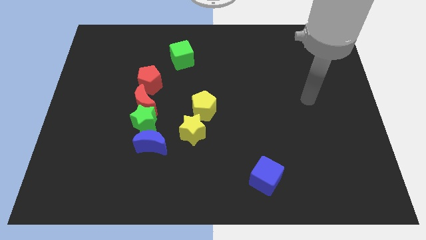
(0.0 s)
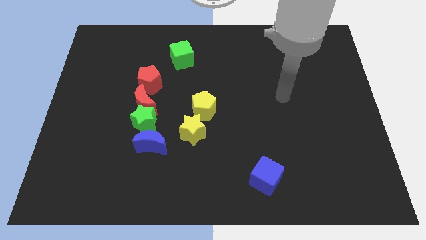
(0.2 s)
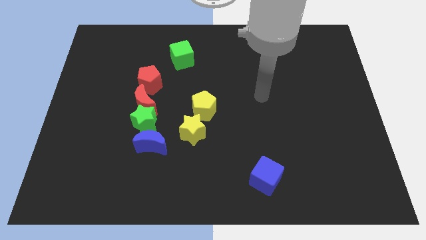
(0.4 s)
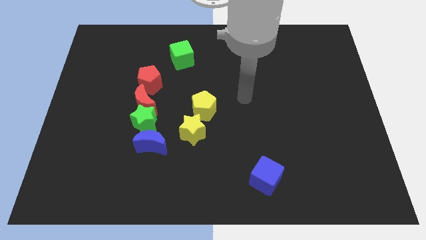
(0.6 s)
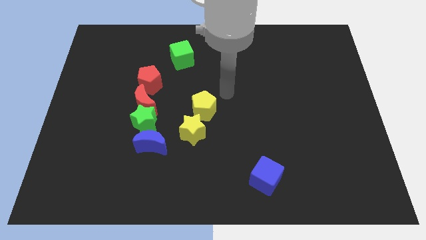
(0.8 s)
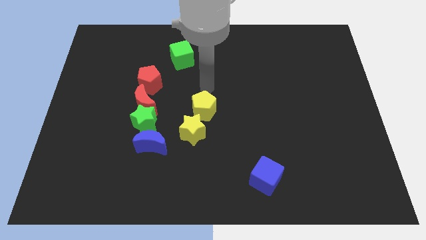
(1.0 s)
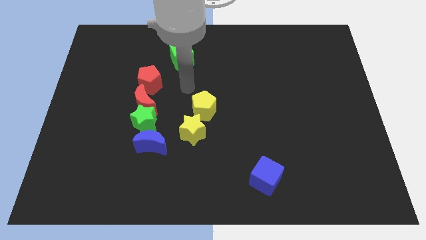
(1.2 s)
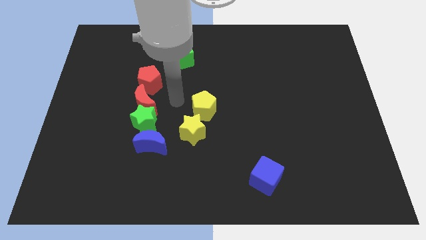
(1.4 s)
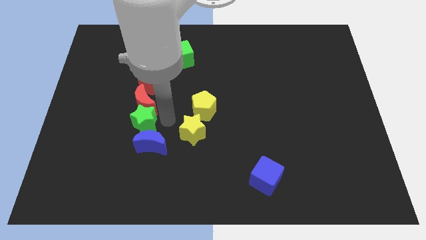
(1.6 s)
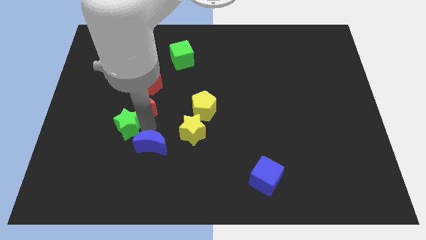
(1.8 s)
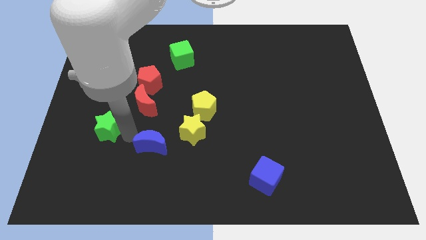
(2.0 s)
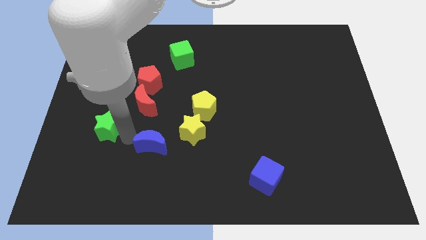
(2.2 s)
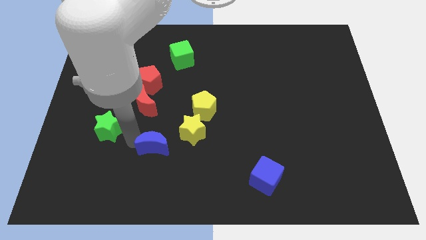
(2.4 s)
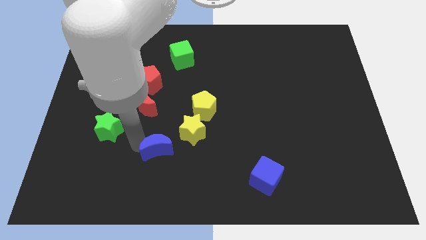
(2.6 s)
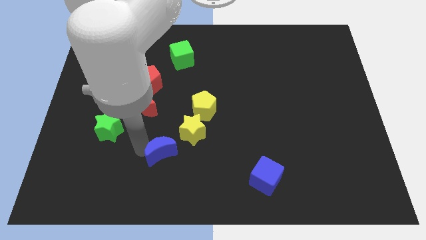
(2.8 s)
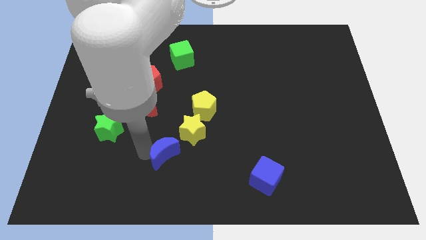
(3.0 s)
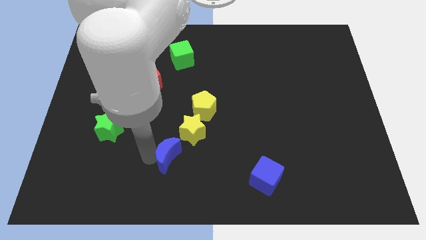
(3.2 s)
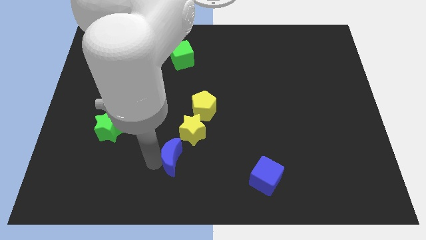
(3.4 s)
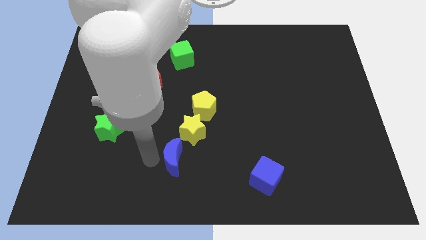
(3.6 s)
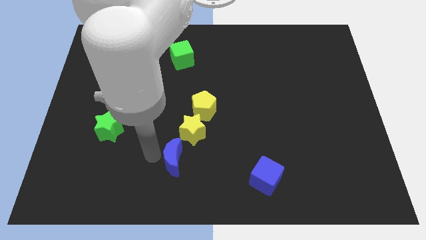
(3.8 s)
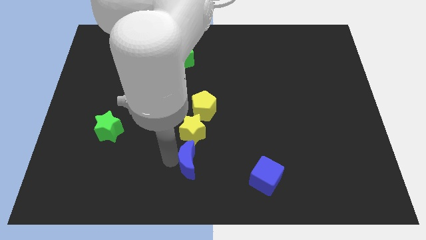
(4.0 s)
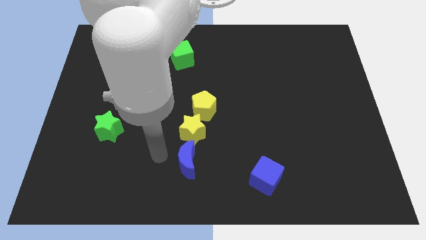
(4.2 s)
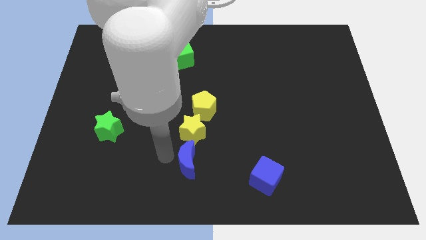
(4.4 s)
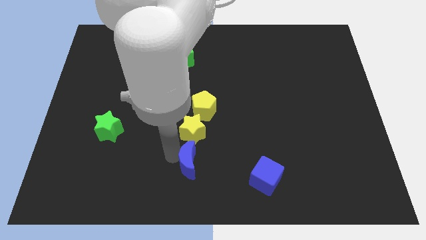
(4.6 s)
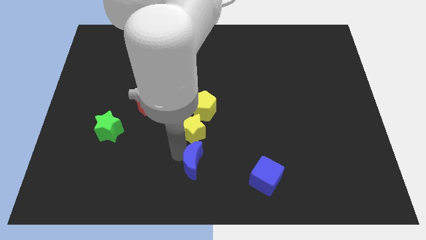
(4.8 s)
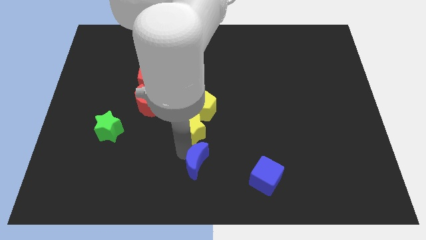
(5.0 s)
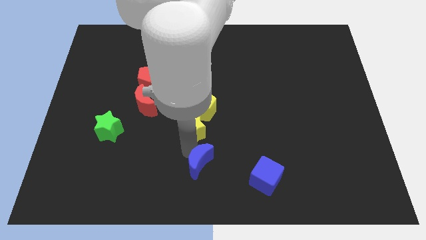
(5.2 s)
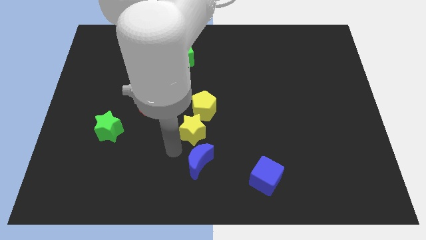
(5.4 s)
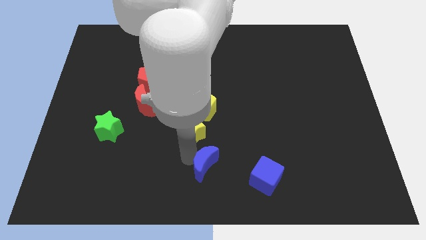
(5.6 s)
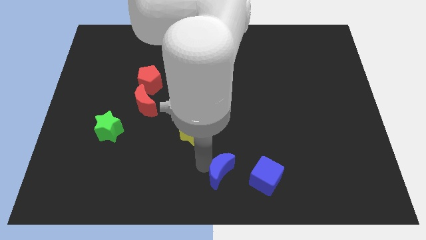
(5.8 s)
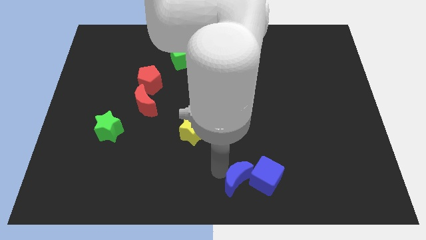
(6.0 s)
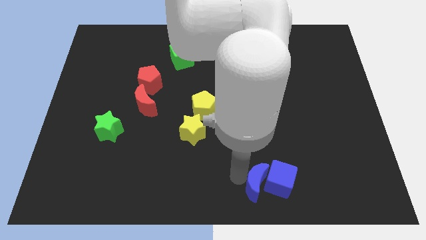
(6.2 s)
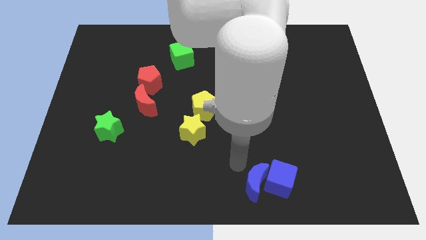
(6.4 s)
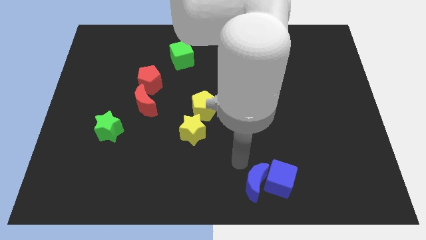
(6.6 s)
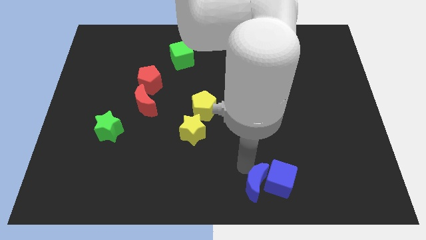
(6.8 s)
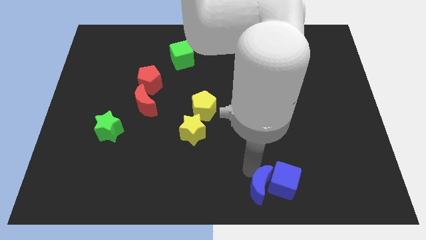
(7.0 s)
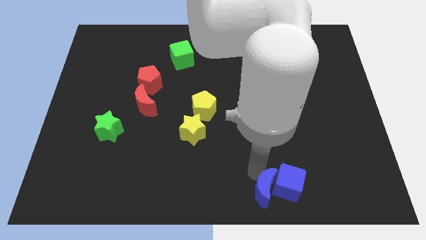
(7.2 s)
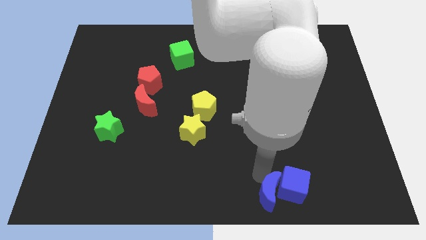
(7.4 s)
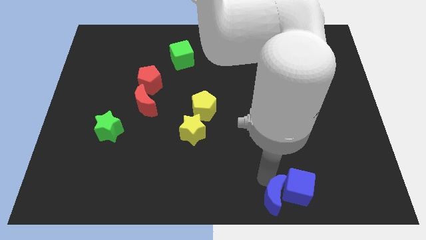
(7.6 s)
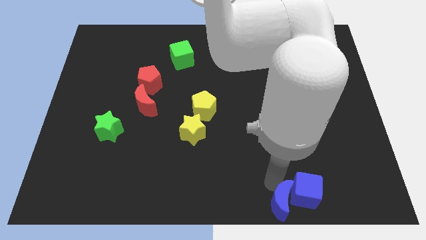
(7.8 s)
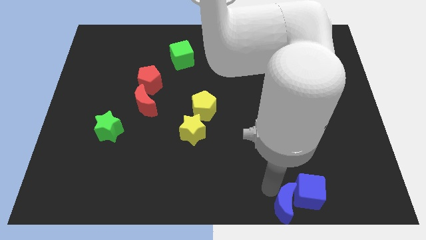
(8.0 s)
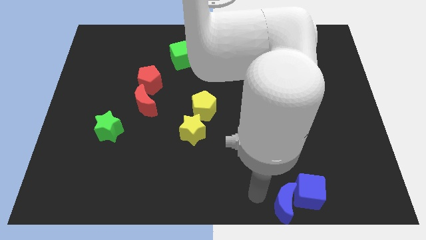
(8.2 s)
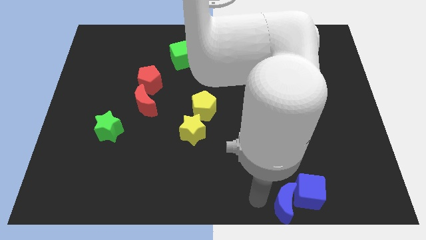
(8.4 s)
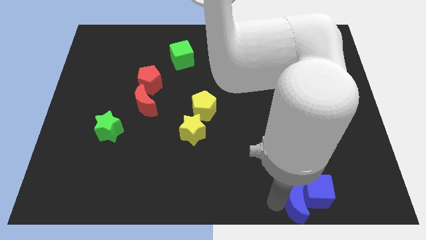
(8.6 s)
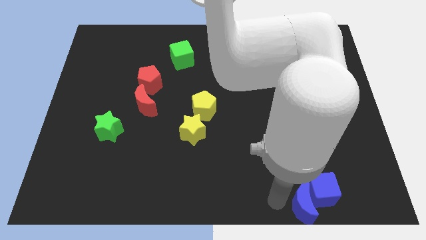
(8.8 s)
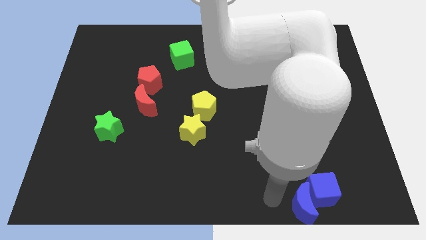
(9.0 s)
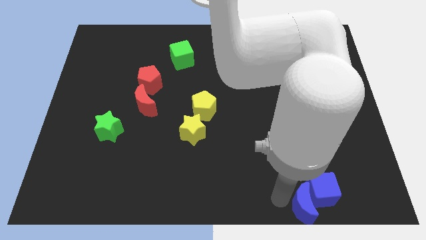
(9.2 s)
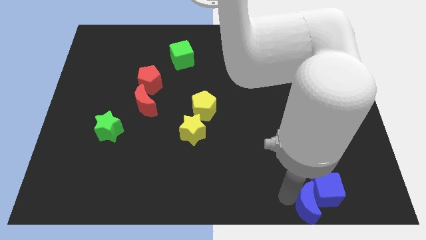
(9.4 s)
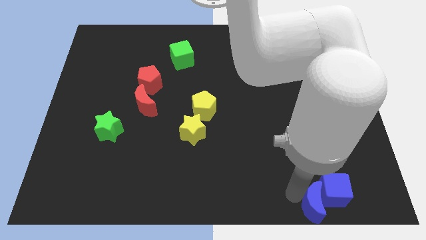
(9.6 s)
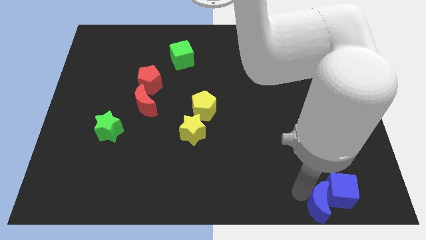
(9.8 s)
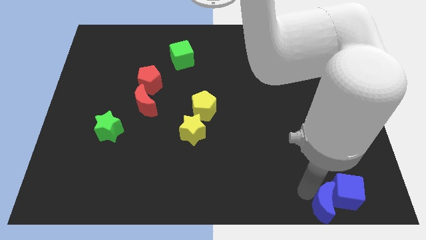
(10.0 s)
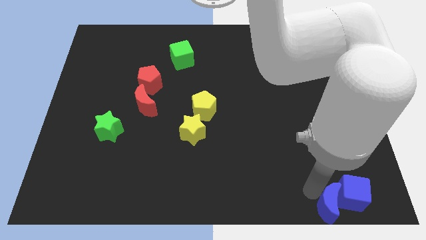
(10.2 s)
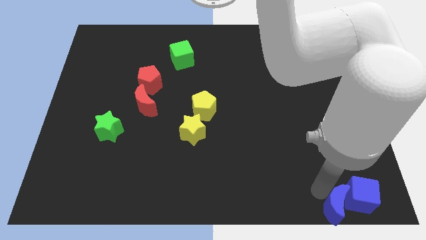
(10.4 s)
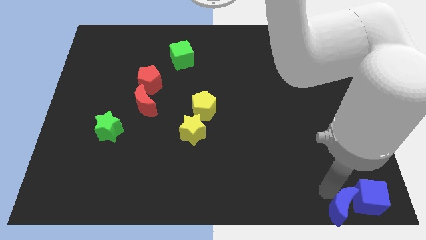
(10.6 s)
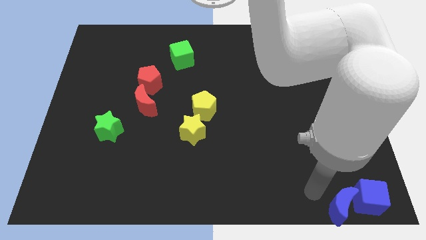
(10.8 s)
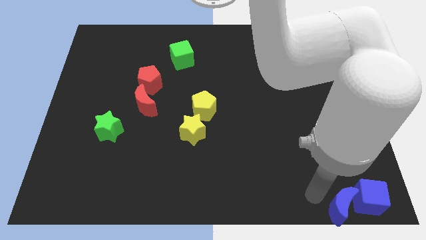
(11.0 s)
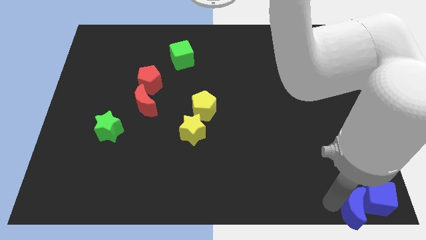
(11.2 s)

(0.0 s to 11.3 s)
put the blue moon to the bottom right of the board
